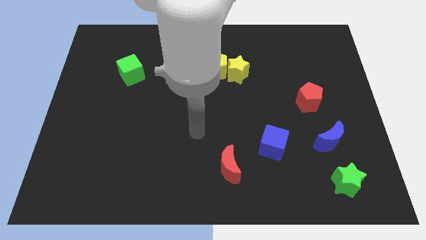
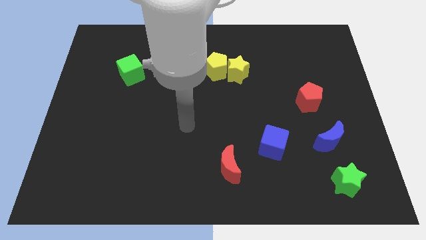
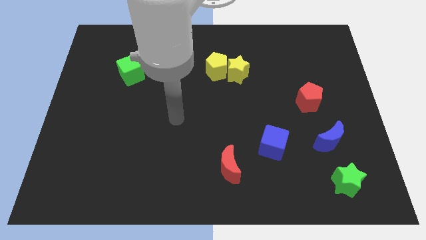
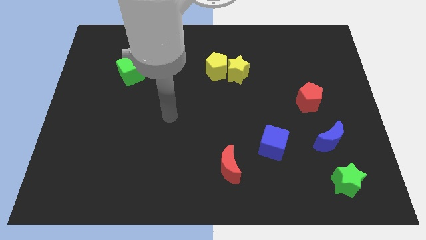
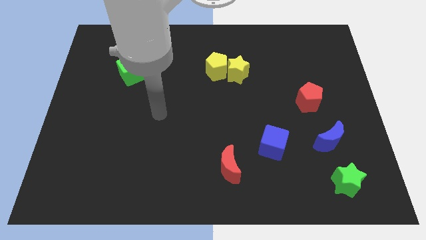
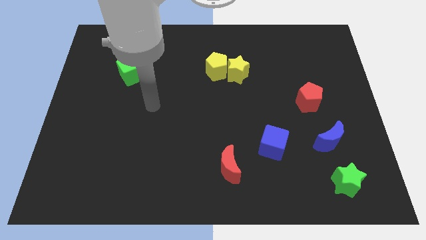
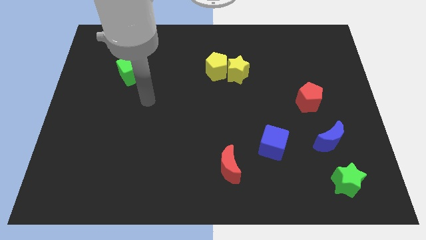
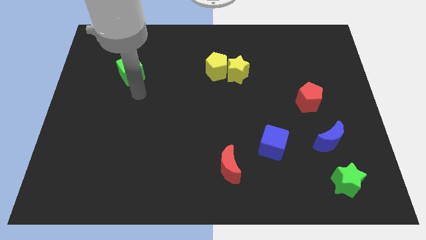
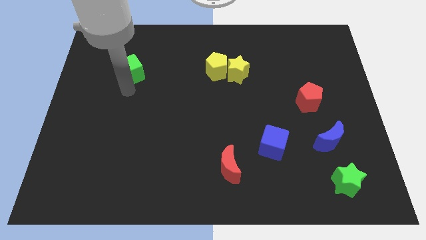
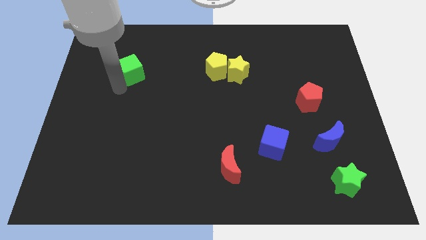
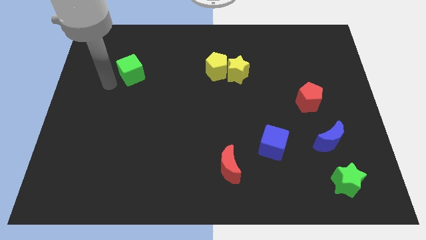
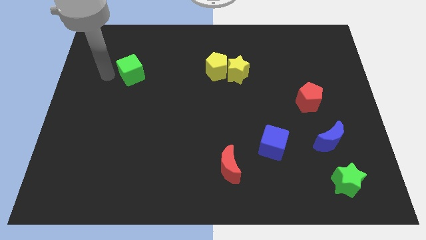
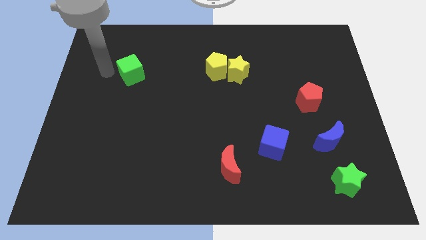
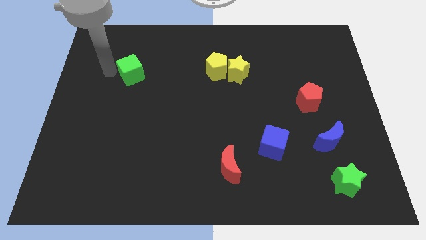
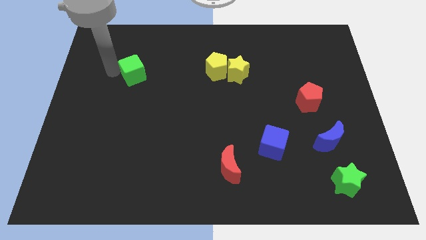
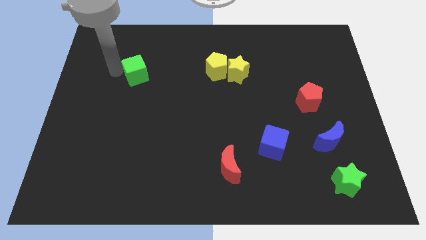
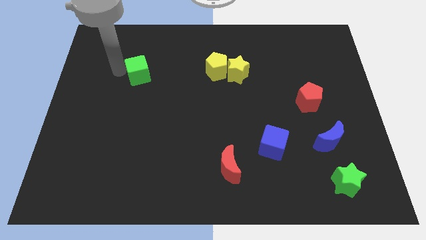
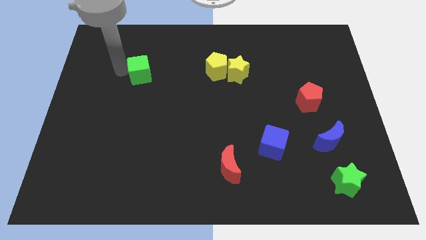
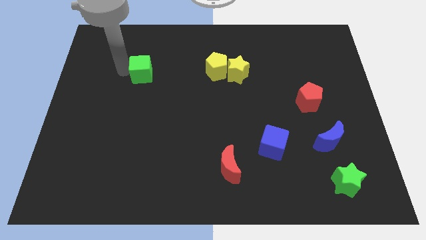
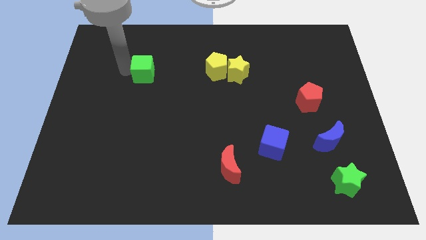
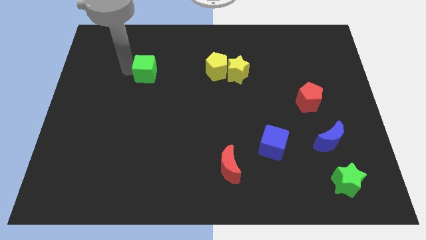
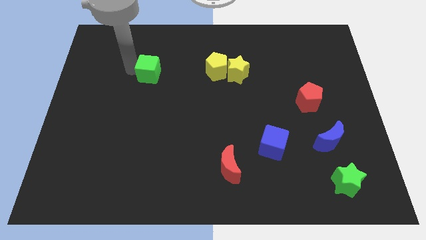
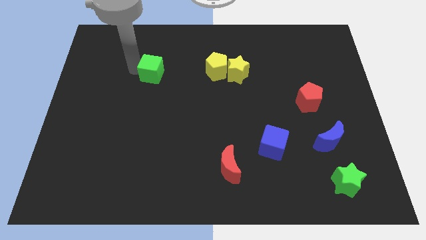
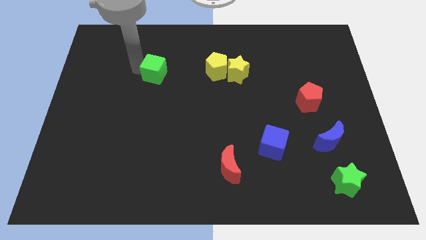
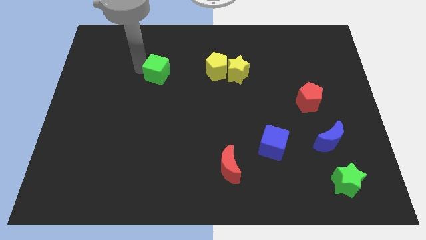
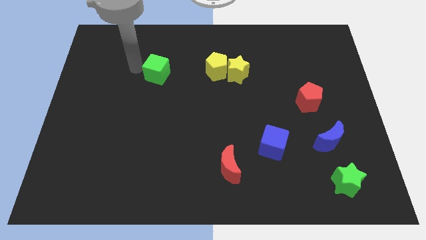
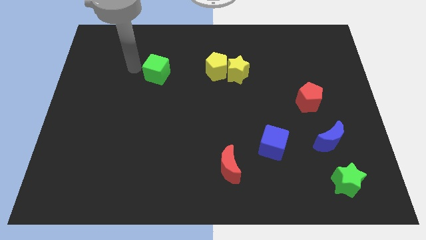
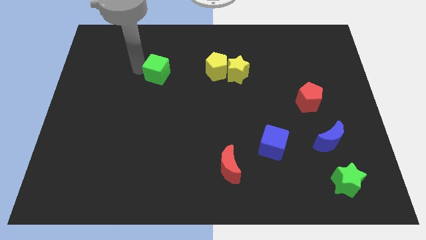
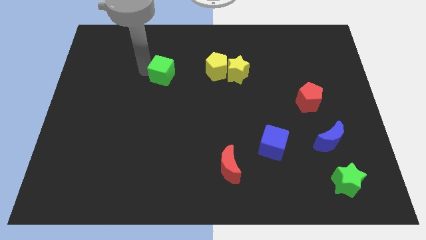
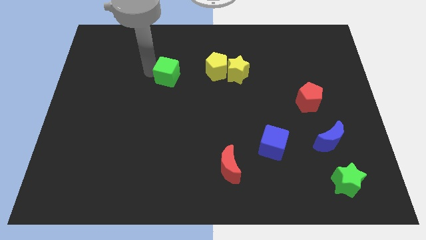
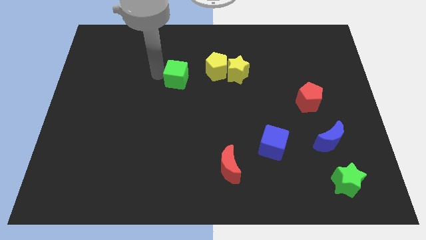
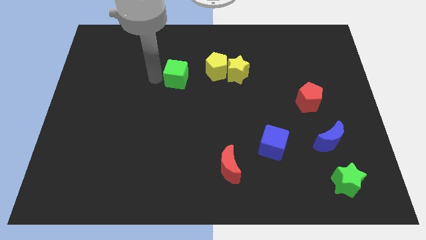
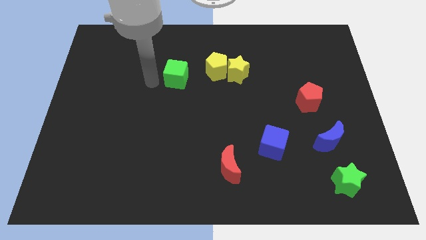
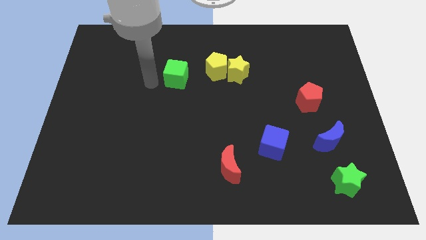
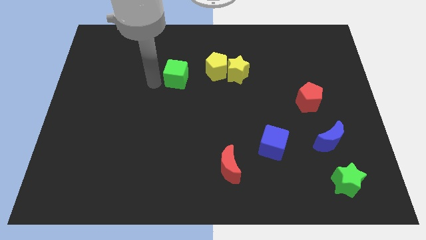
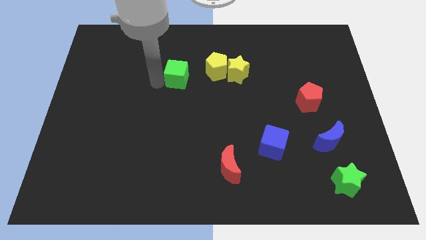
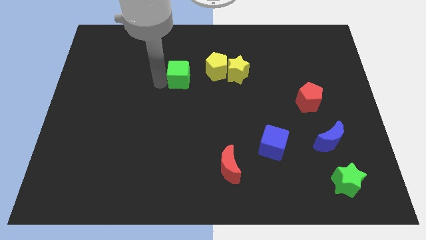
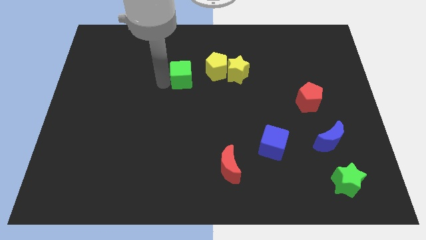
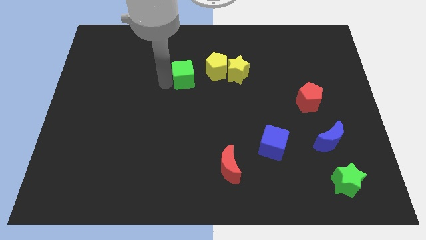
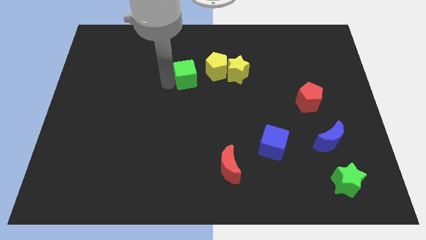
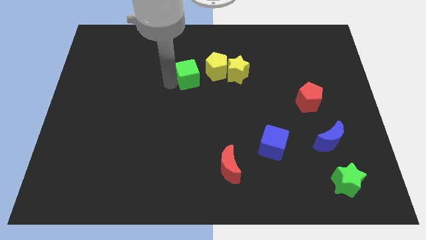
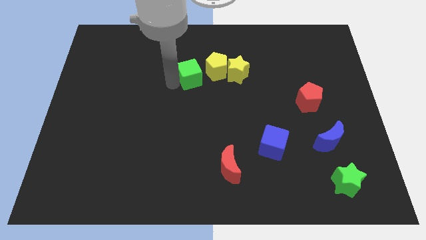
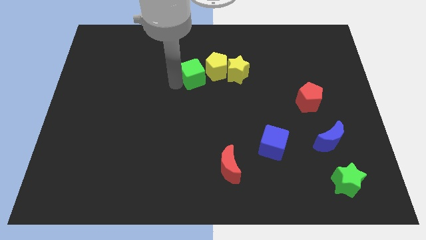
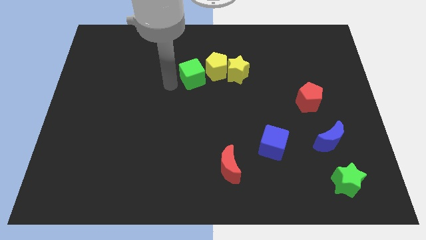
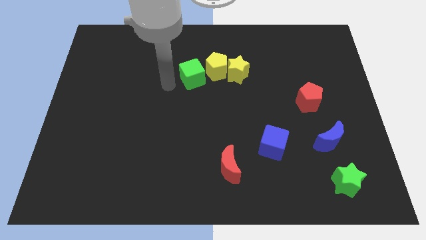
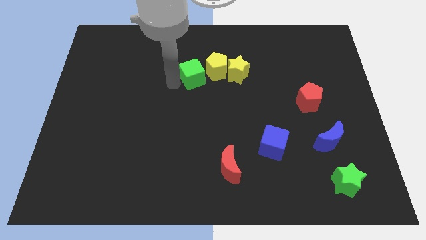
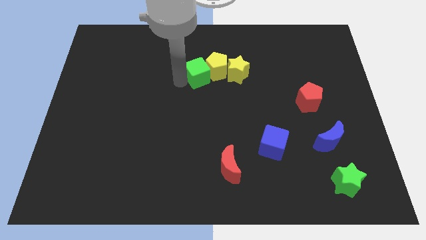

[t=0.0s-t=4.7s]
slide the green cube close to the yellow pentagon

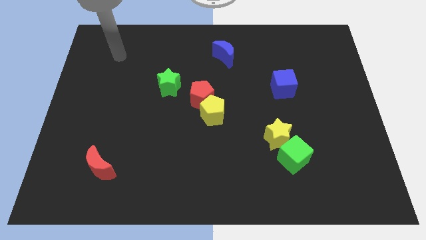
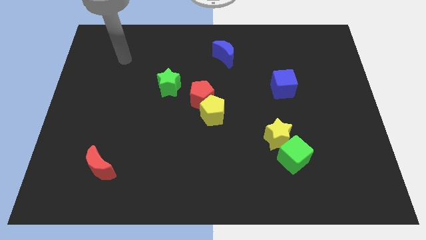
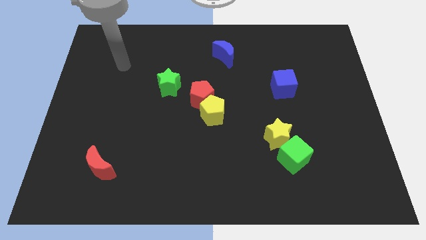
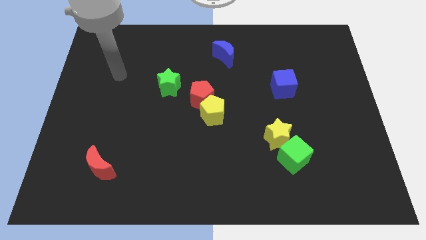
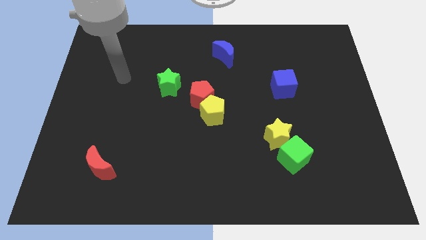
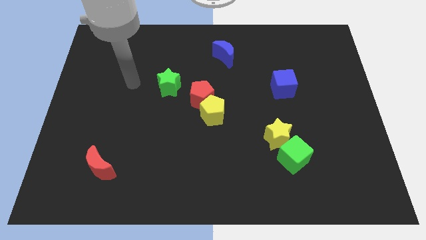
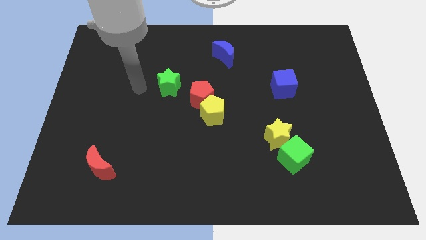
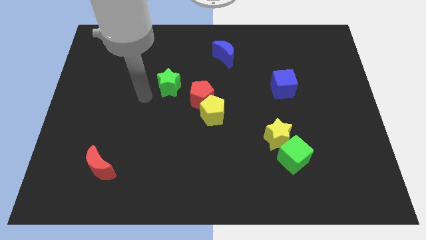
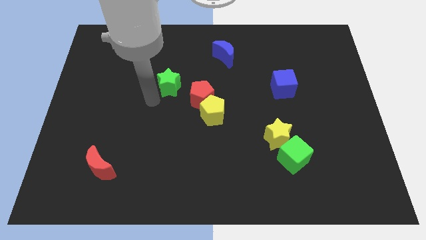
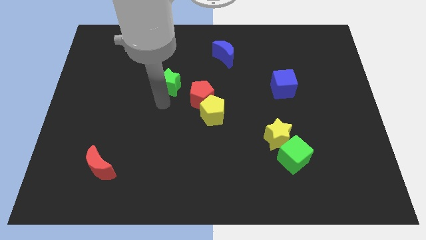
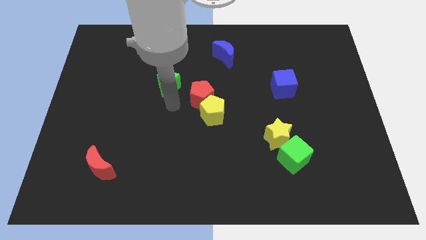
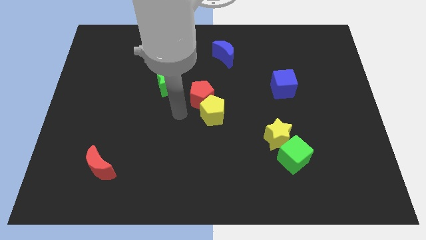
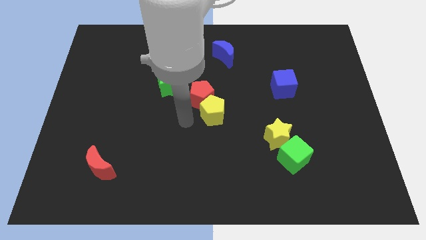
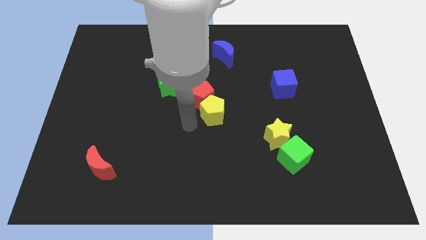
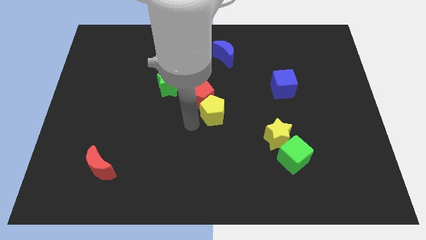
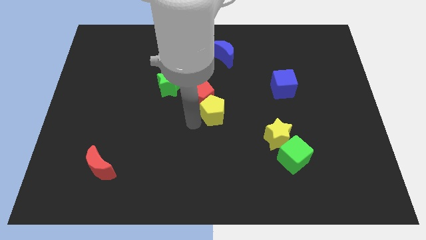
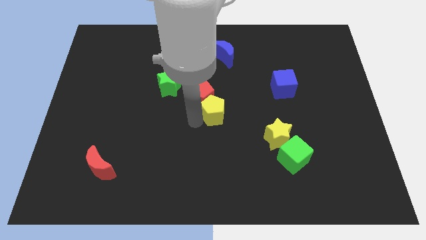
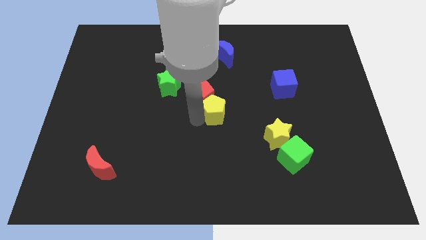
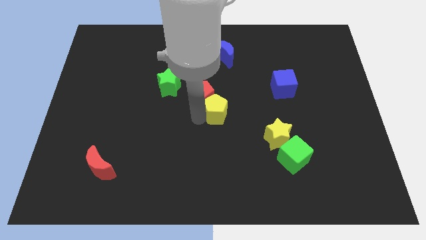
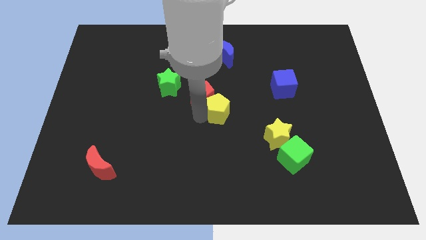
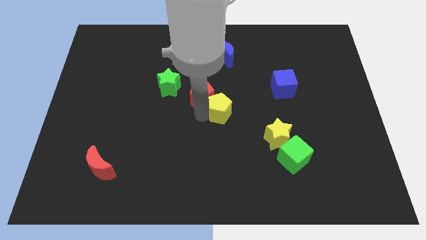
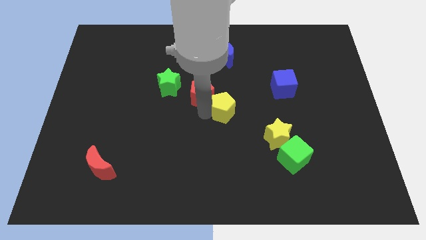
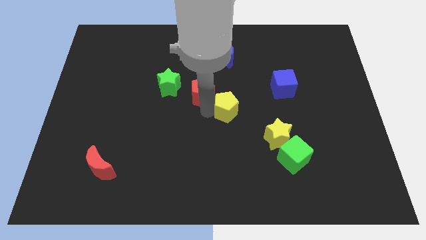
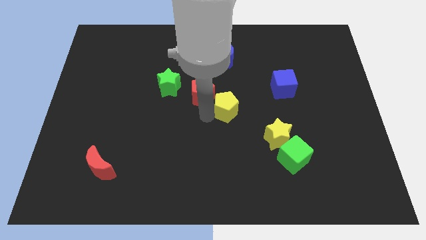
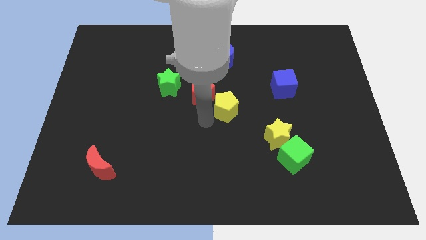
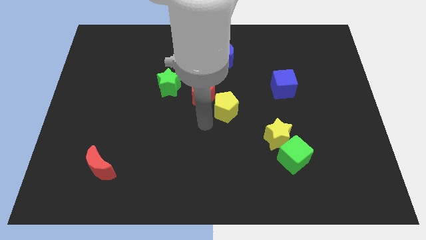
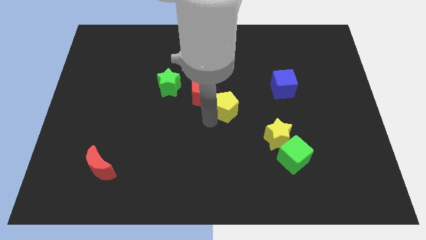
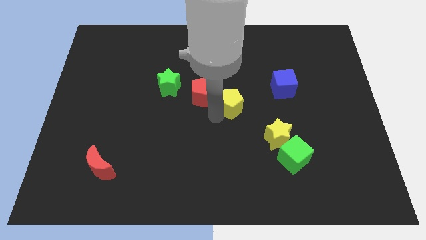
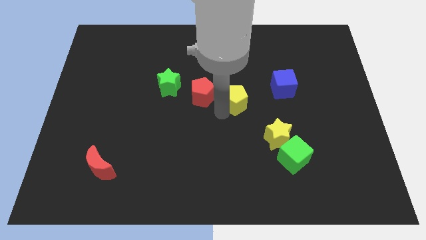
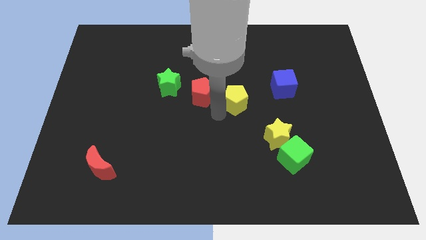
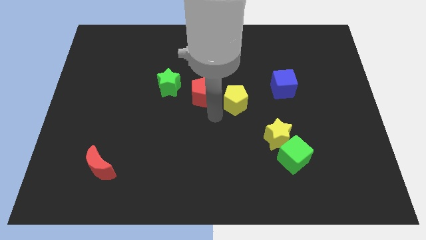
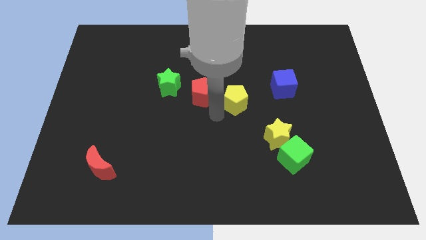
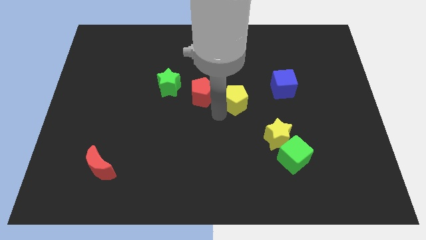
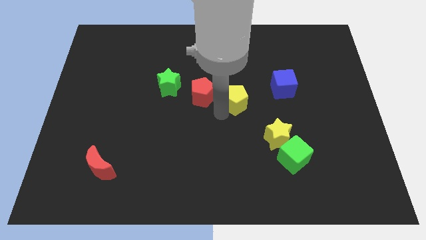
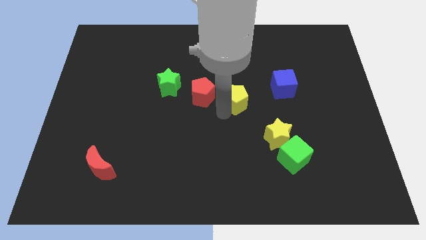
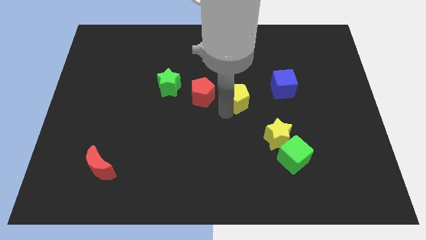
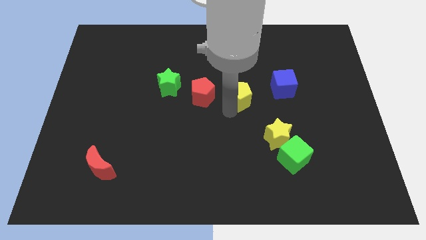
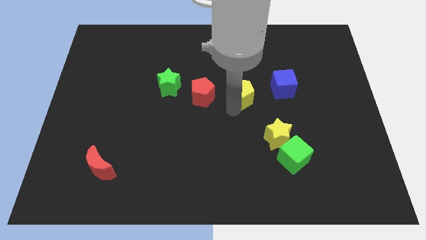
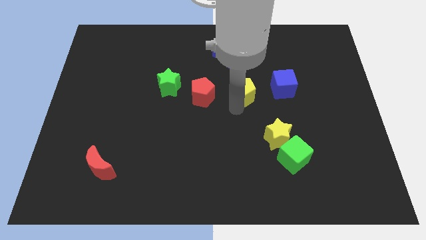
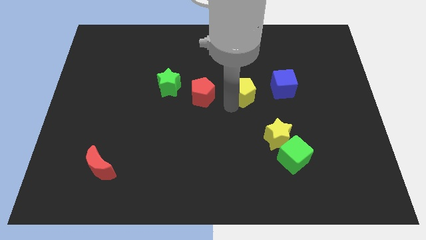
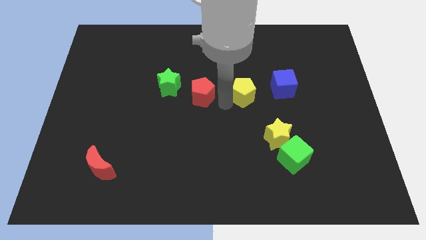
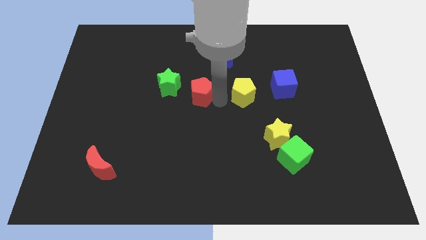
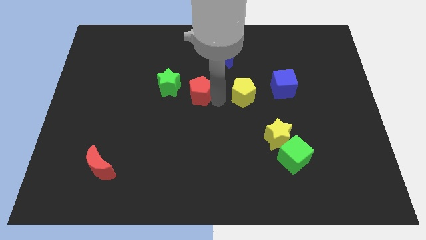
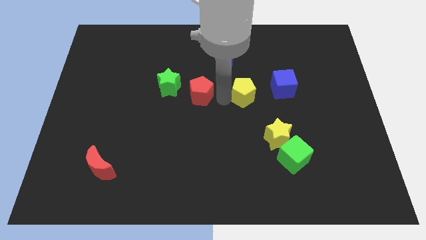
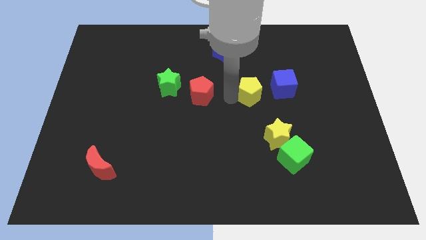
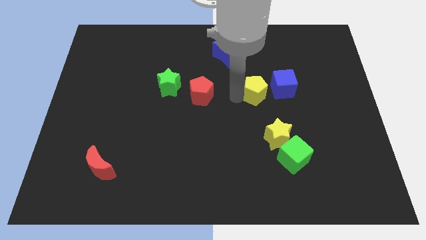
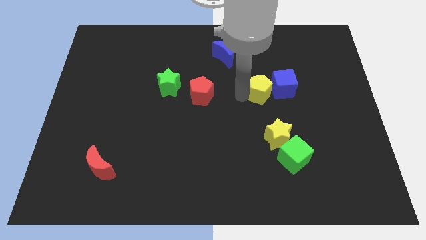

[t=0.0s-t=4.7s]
slide the yellow pentagon close to the blue cube
